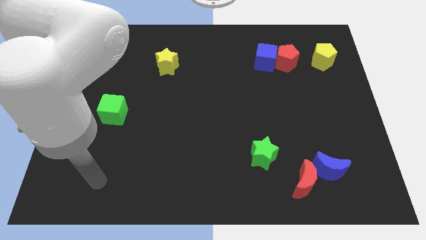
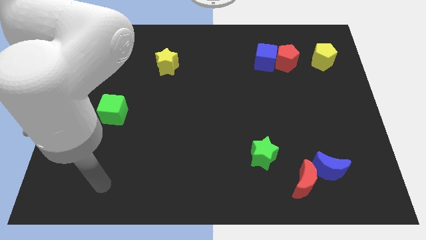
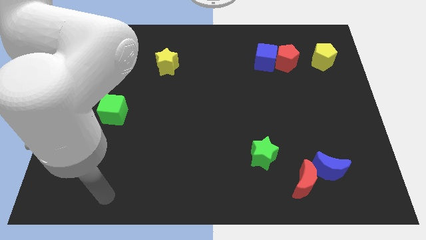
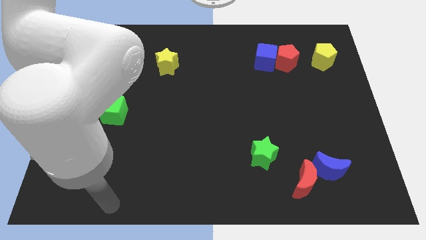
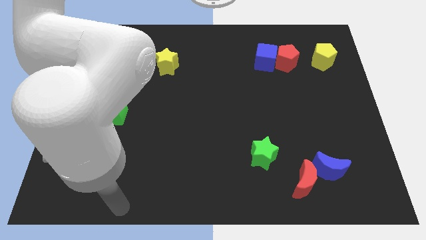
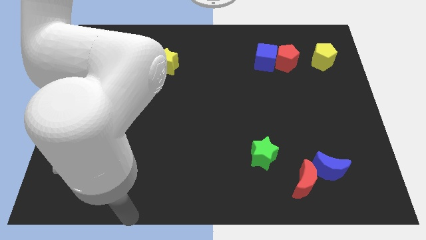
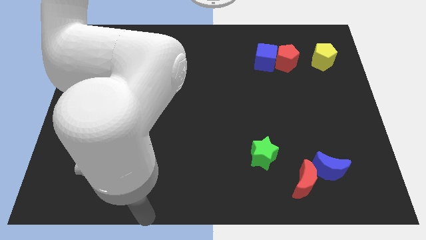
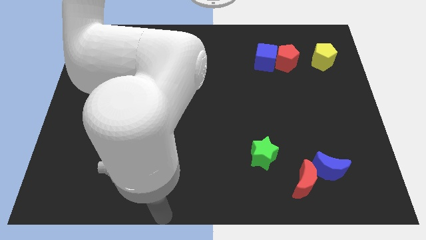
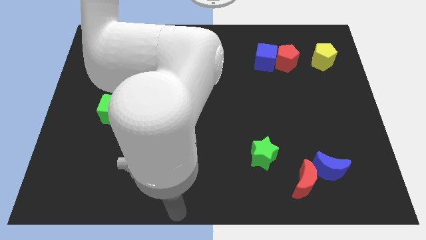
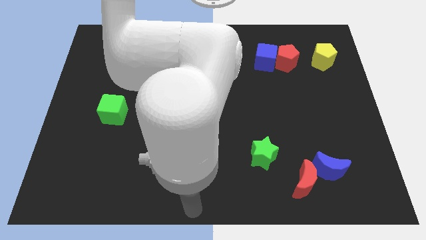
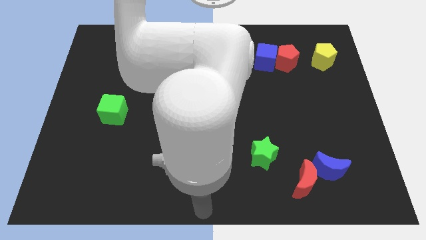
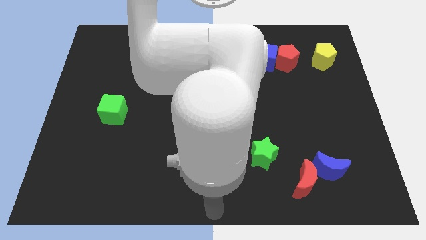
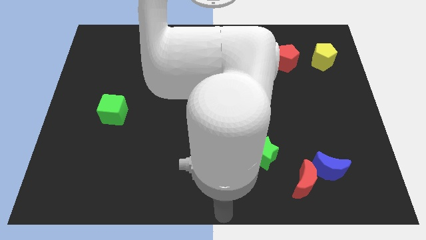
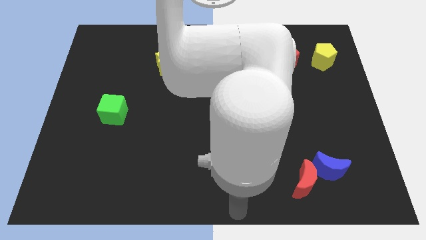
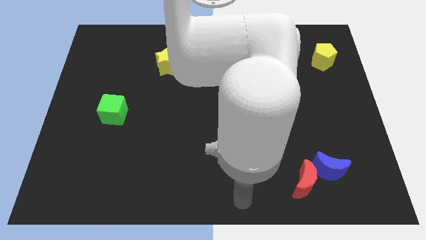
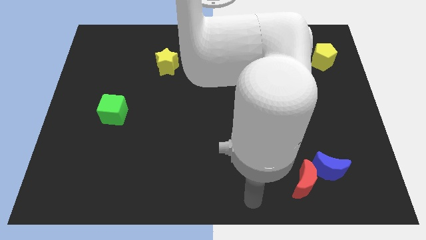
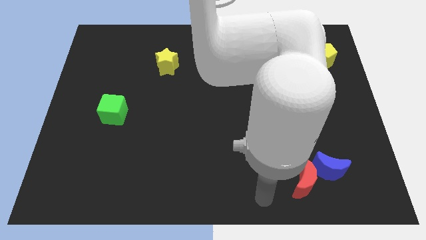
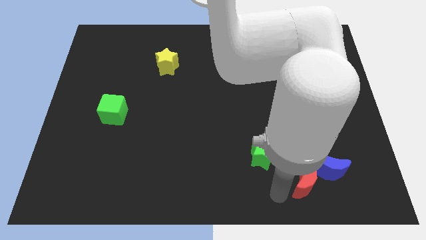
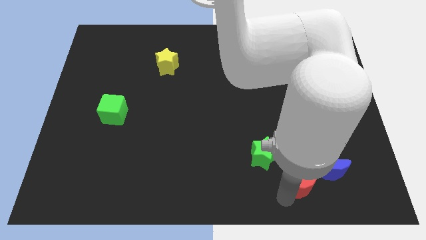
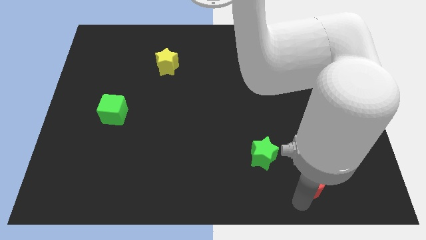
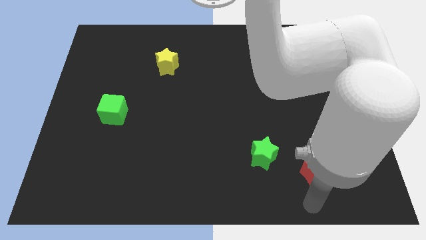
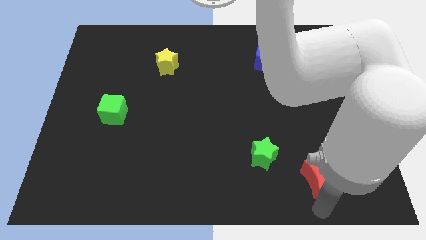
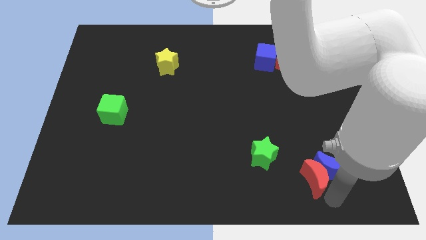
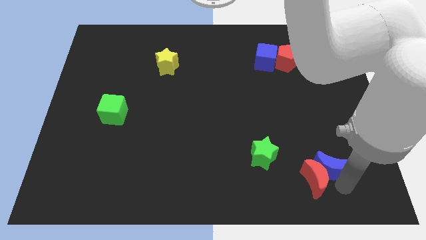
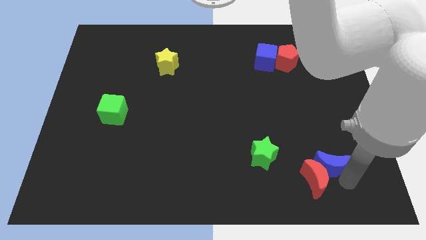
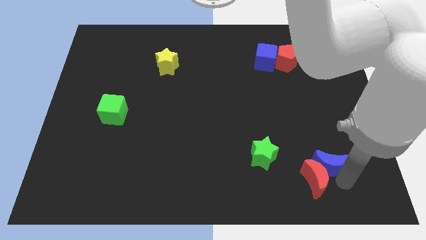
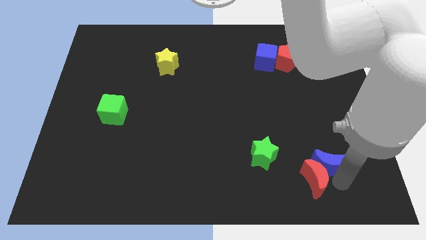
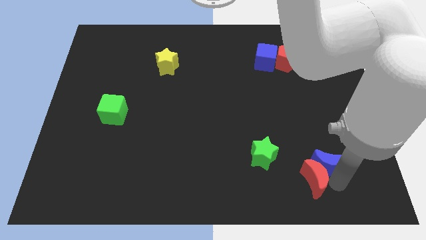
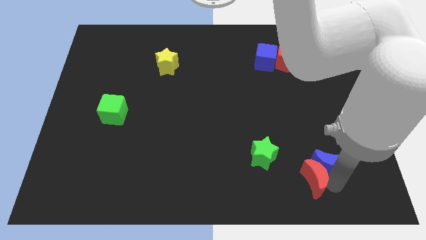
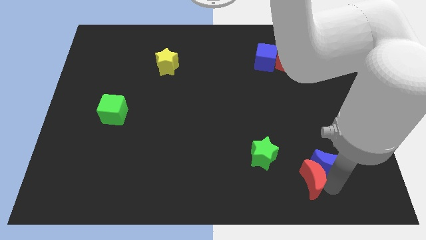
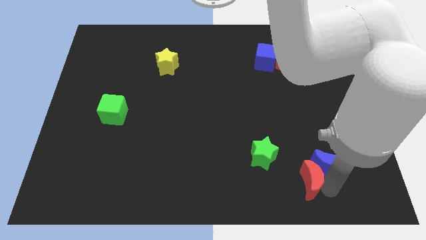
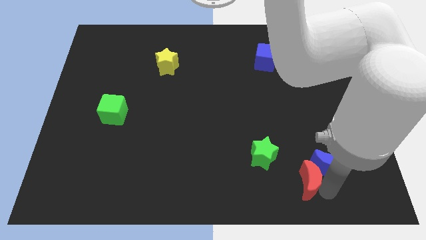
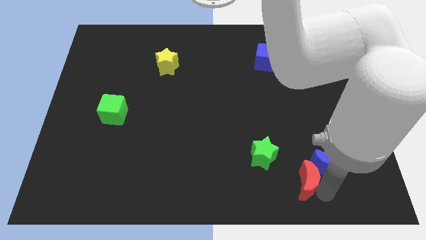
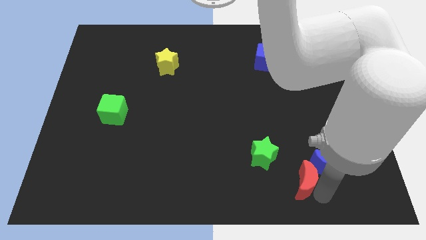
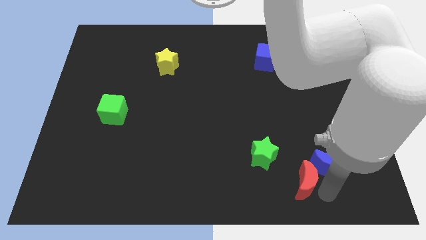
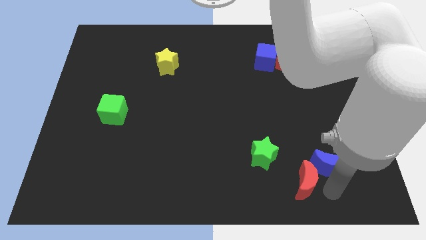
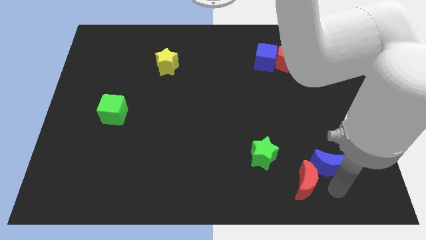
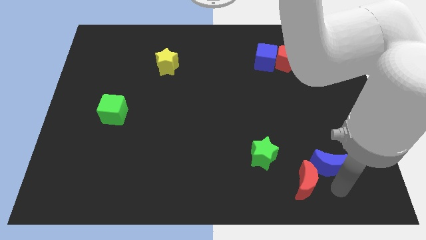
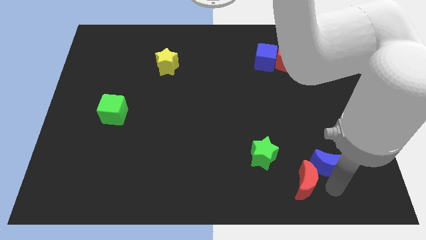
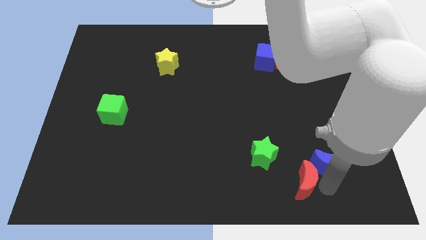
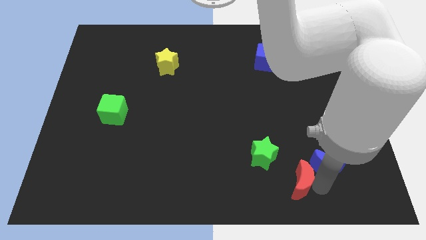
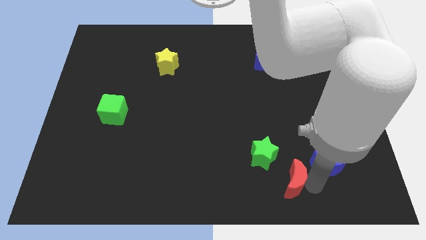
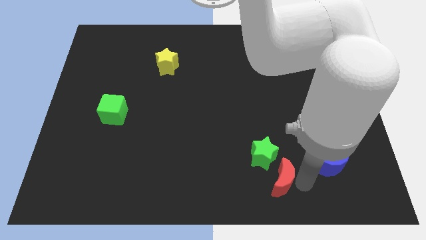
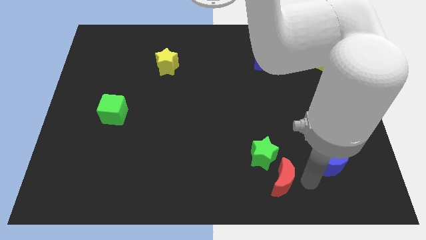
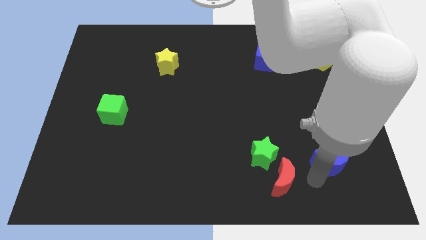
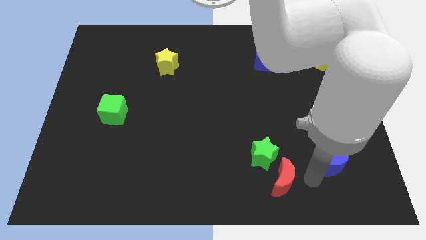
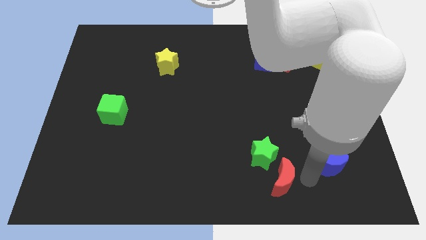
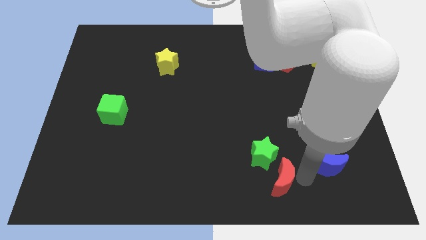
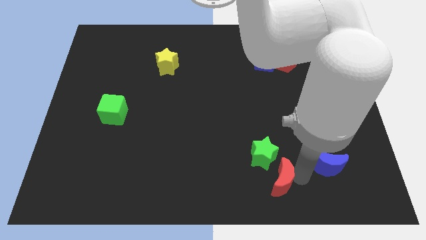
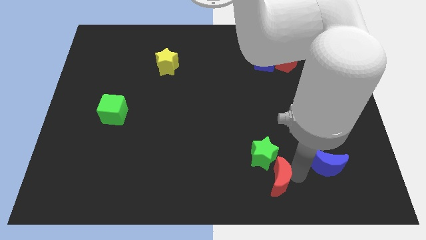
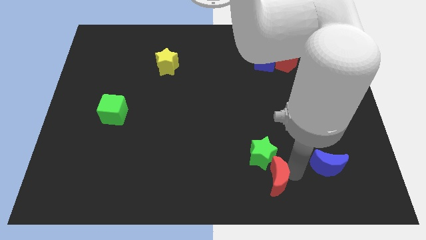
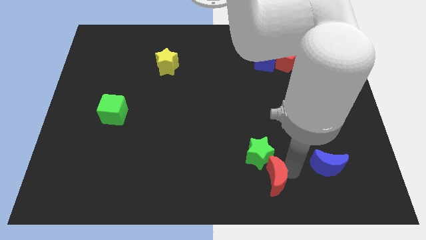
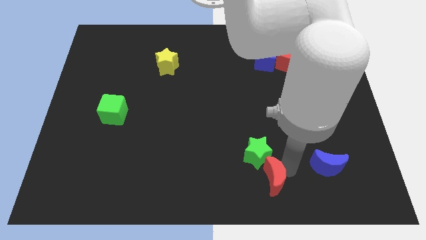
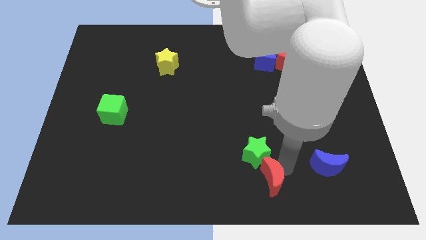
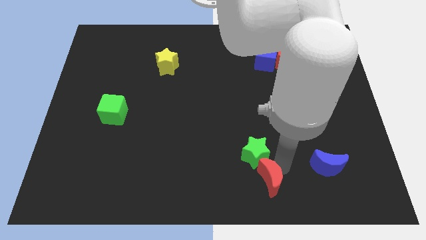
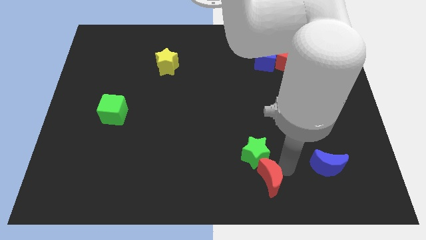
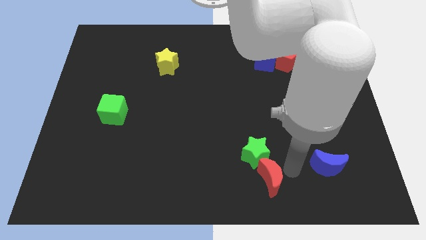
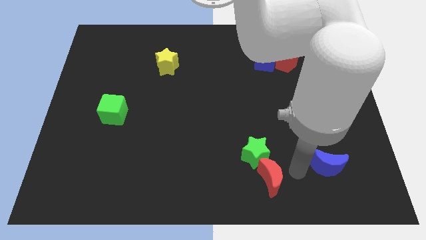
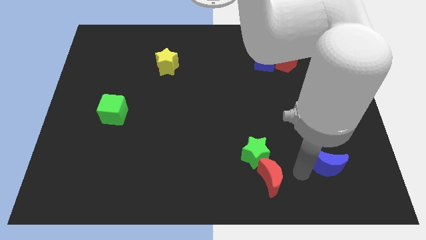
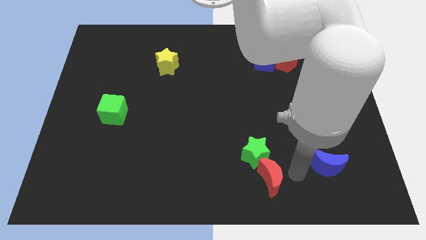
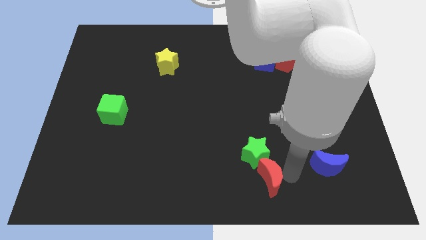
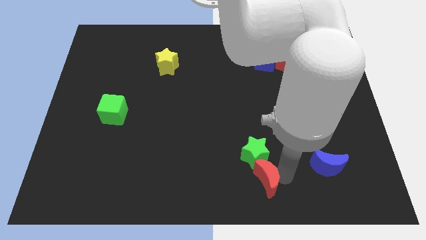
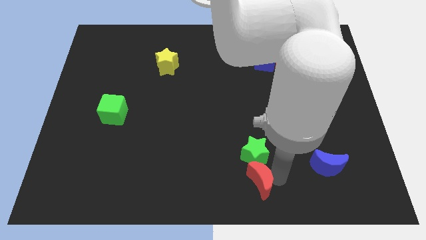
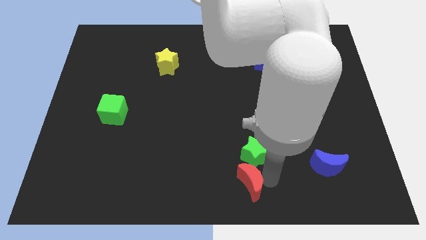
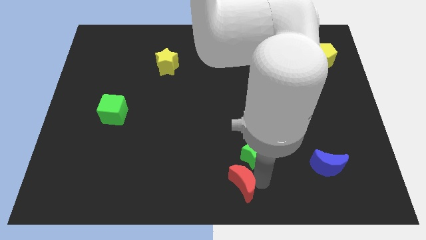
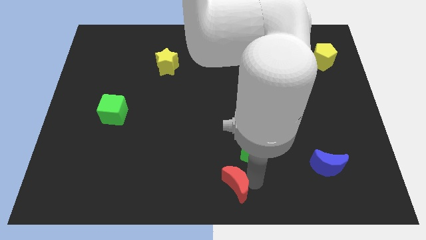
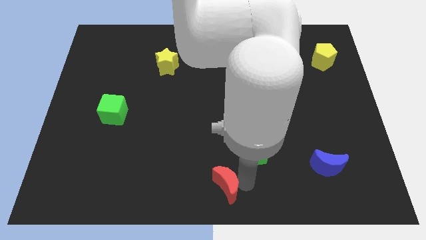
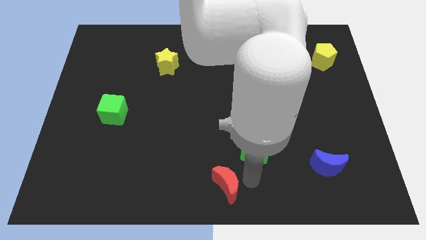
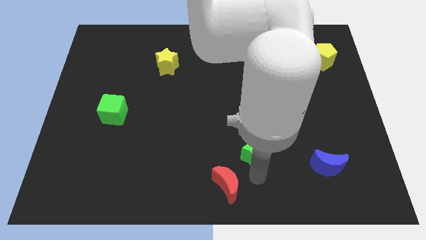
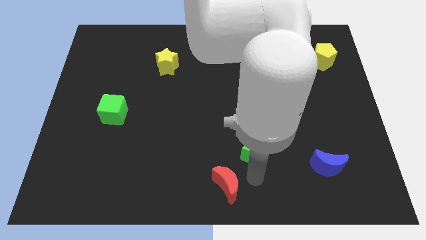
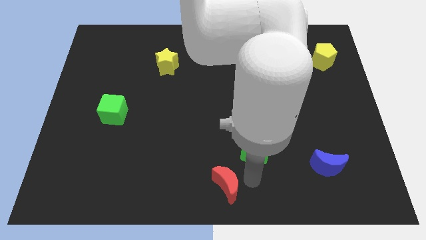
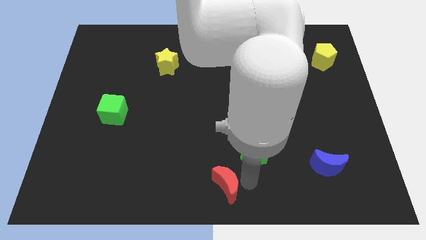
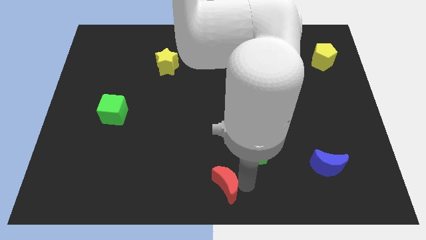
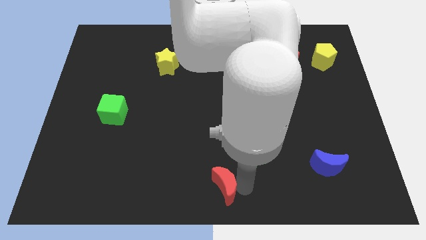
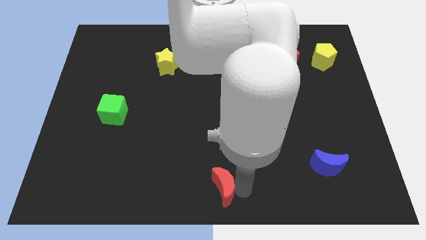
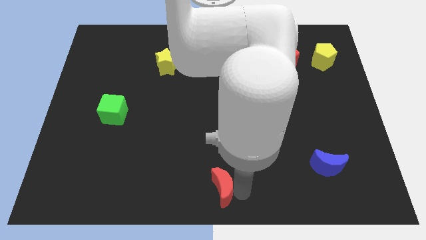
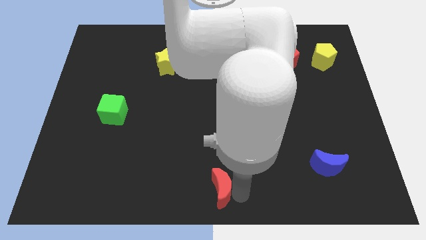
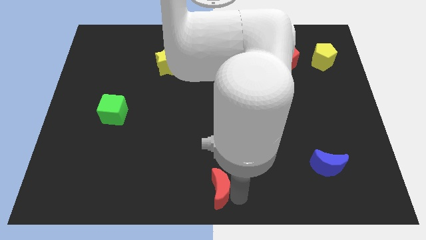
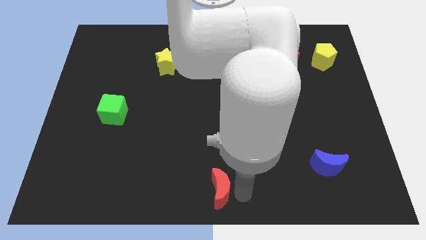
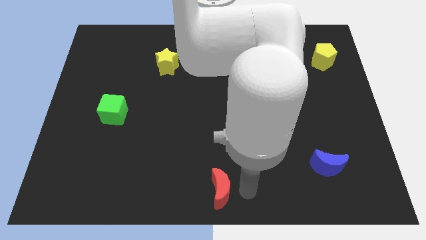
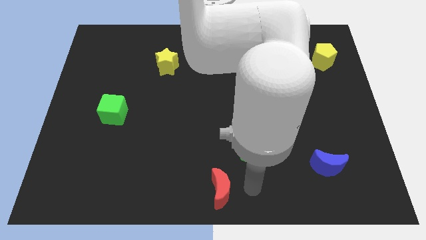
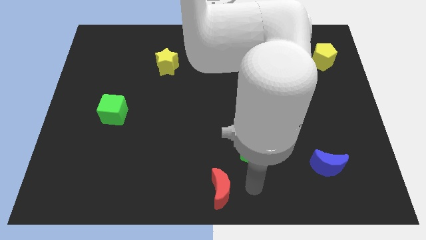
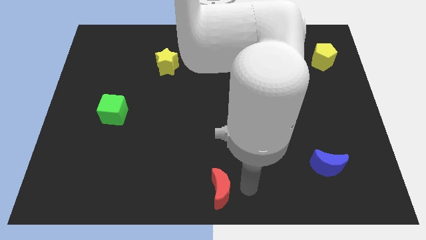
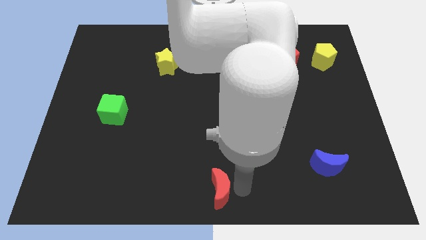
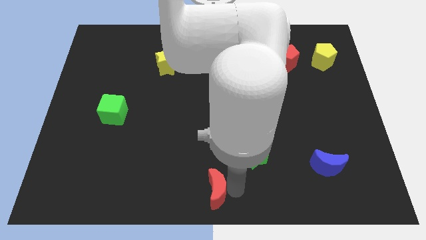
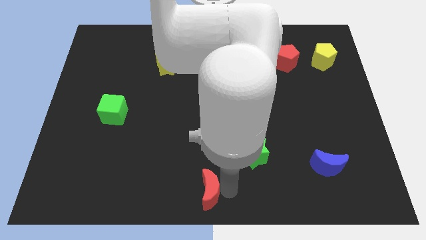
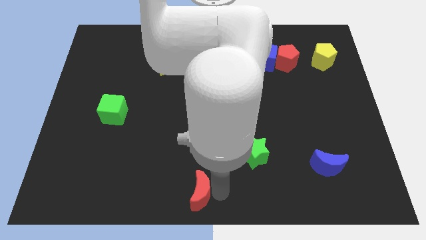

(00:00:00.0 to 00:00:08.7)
slide the red moon to the left
